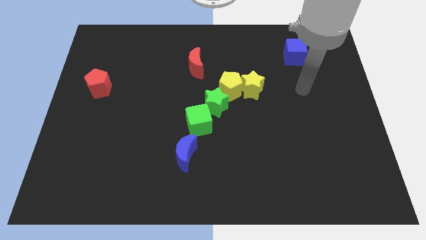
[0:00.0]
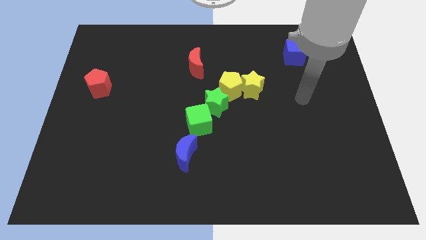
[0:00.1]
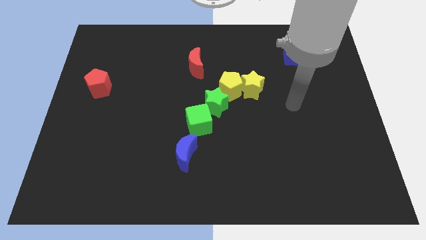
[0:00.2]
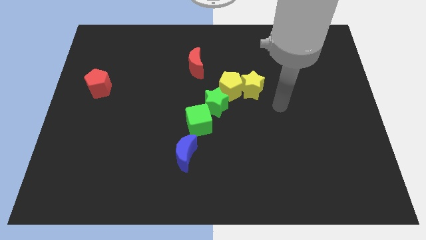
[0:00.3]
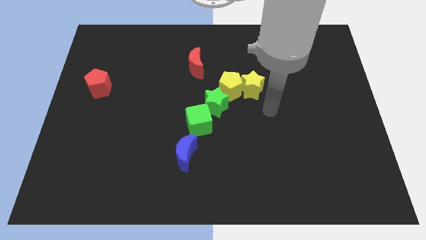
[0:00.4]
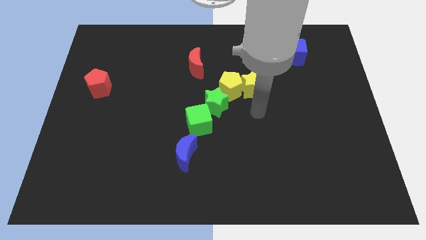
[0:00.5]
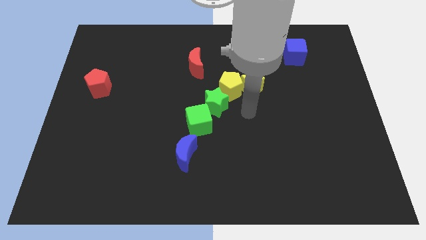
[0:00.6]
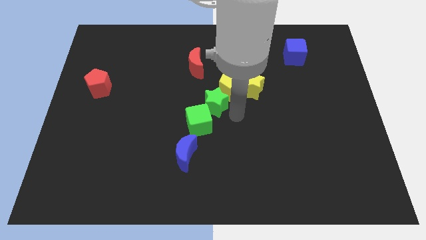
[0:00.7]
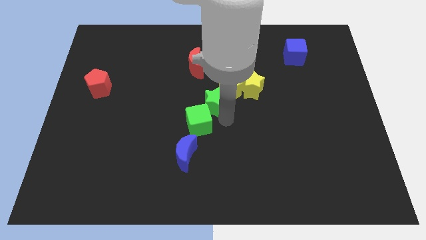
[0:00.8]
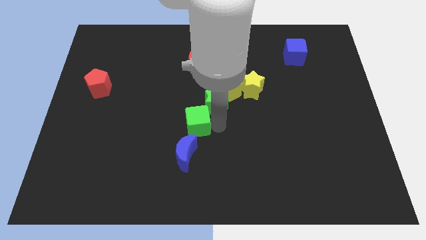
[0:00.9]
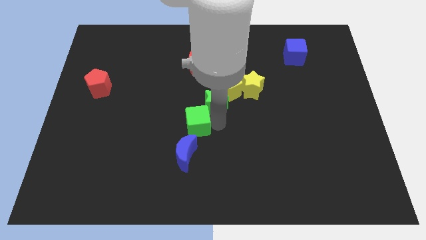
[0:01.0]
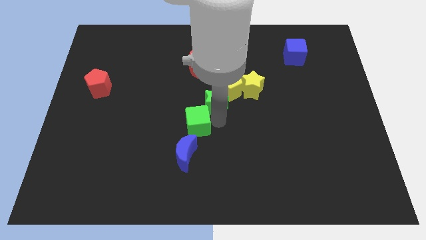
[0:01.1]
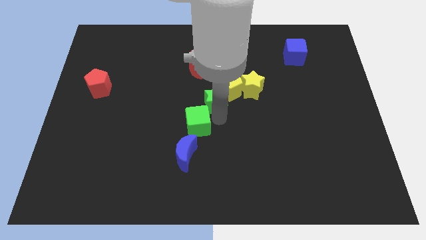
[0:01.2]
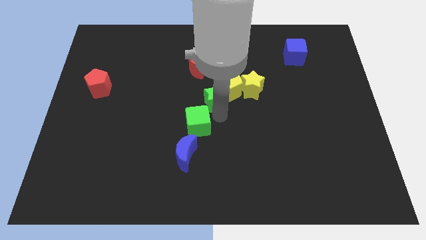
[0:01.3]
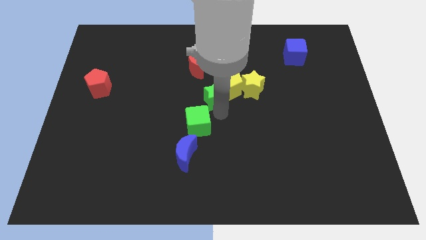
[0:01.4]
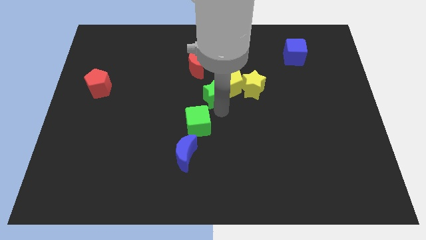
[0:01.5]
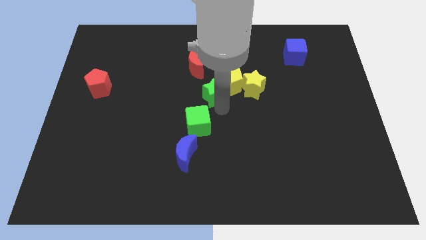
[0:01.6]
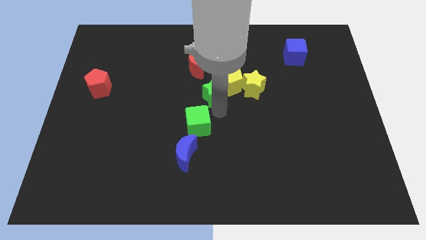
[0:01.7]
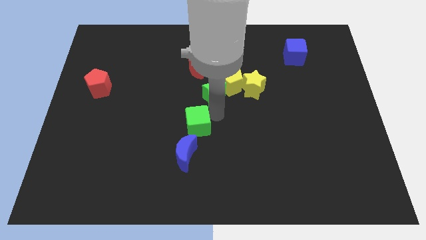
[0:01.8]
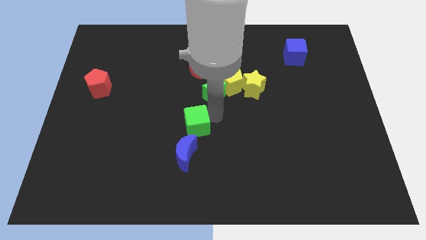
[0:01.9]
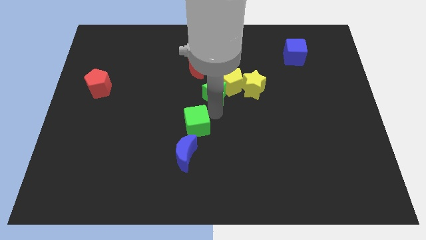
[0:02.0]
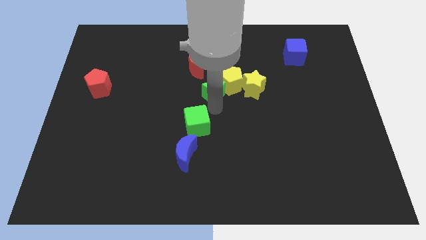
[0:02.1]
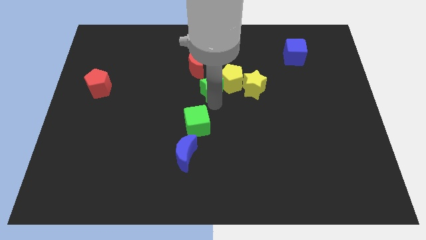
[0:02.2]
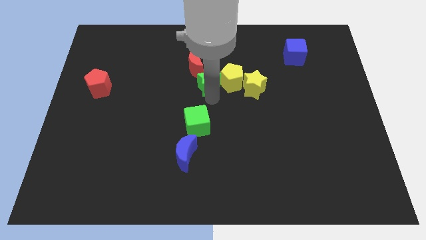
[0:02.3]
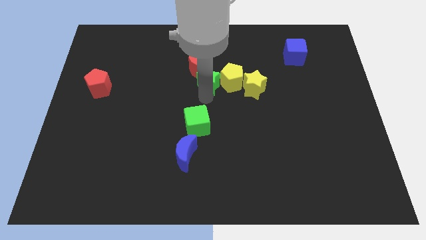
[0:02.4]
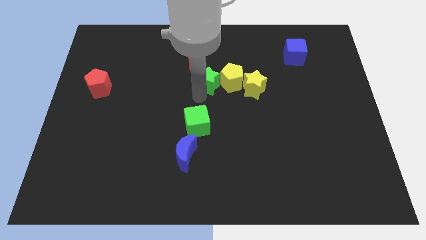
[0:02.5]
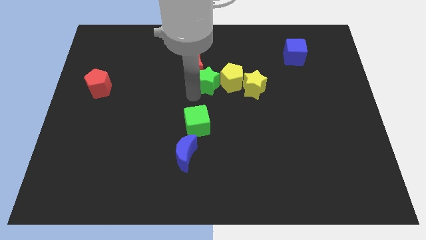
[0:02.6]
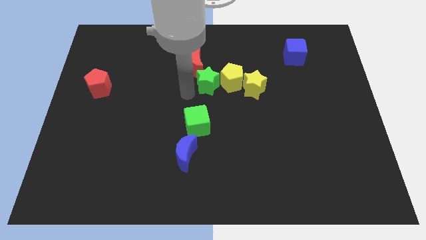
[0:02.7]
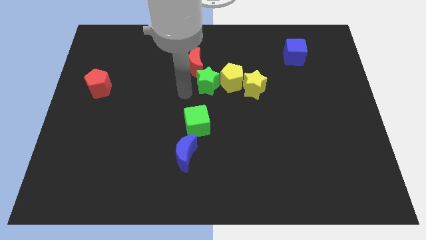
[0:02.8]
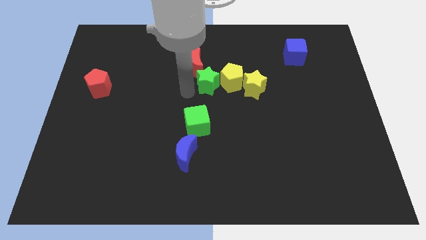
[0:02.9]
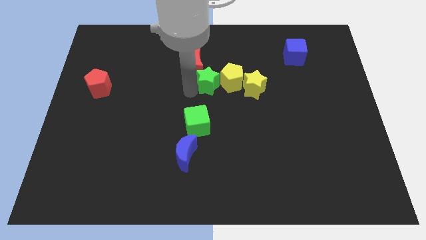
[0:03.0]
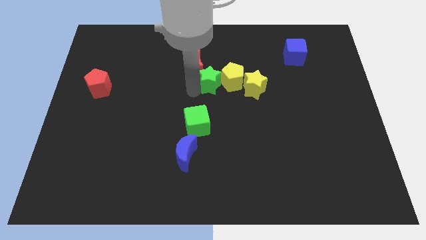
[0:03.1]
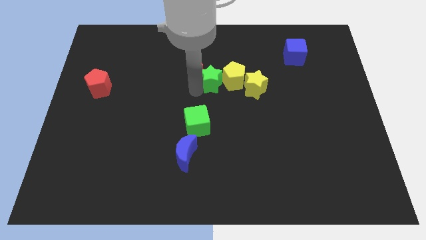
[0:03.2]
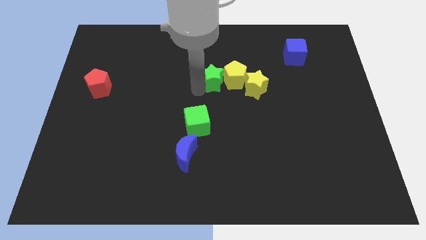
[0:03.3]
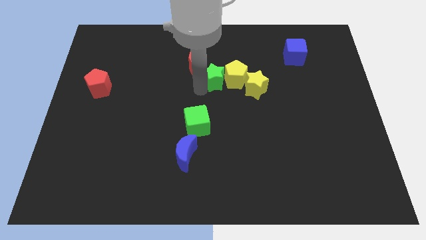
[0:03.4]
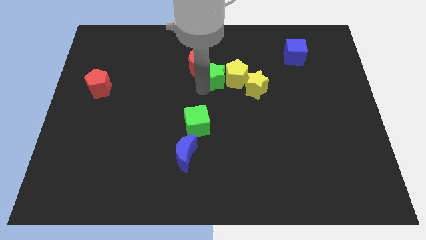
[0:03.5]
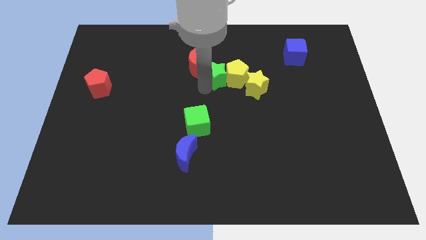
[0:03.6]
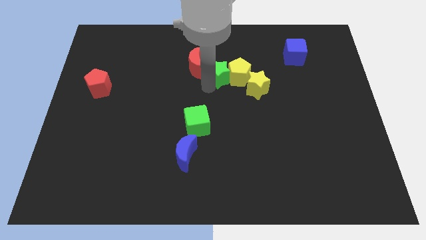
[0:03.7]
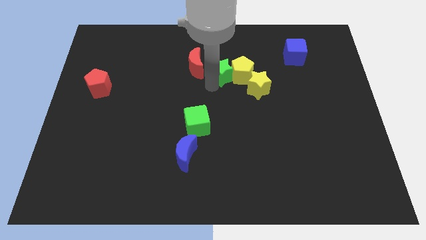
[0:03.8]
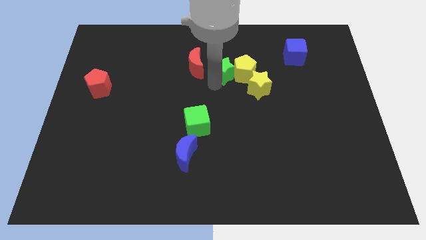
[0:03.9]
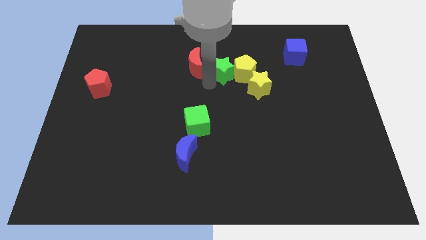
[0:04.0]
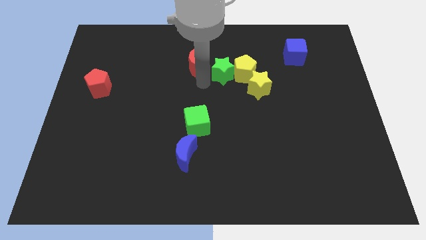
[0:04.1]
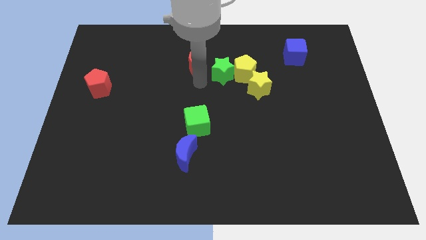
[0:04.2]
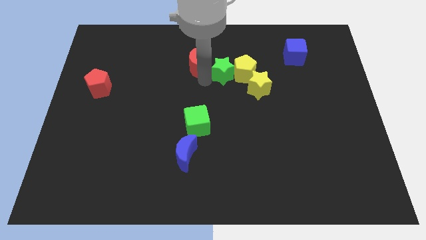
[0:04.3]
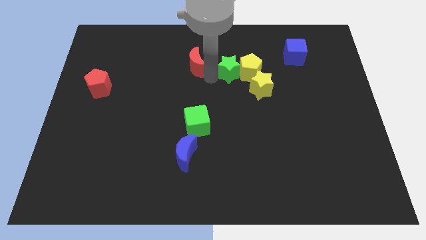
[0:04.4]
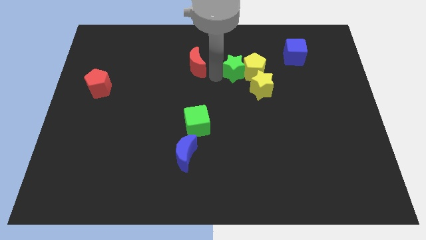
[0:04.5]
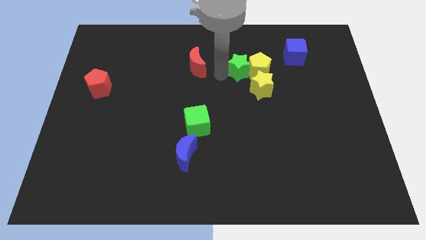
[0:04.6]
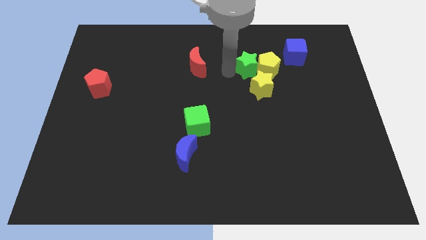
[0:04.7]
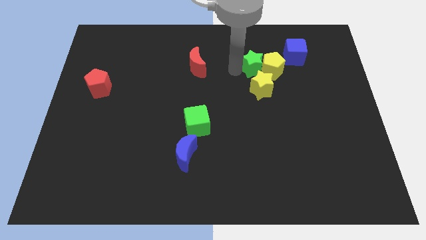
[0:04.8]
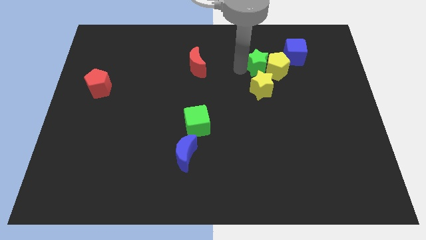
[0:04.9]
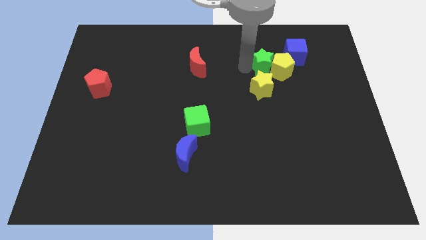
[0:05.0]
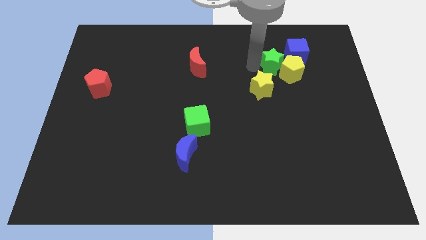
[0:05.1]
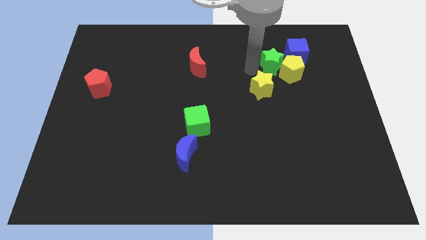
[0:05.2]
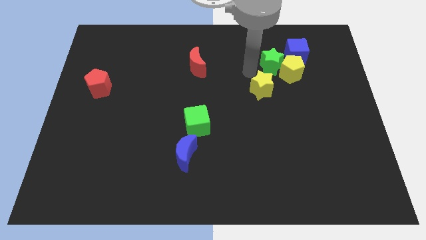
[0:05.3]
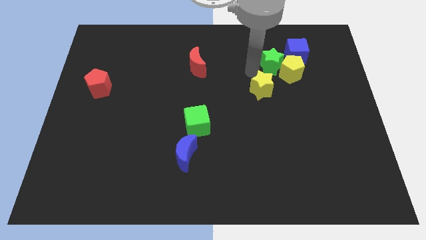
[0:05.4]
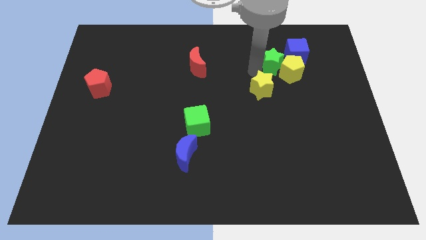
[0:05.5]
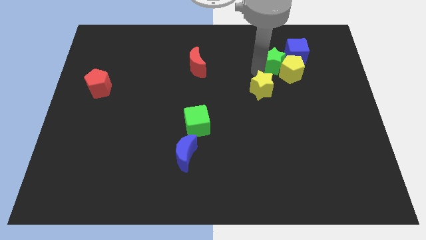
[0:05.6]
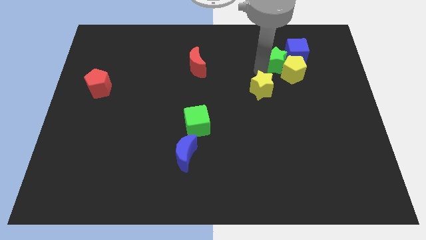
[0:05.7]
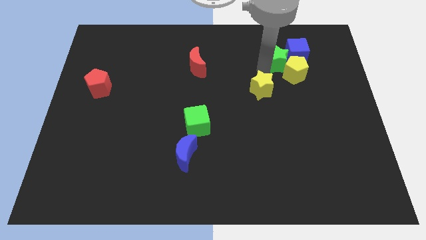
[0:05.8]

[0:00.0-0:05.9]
push the green star next to the blue cube

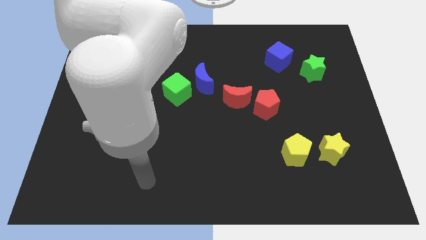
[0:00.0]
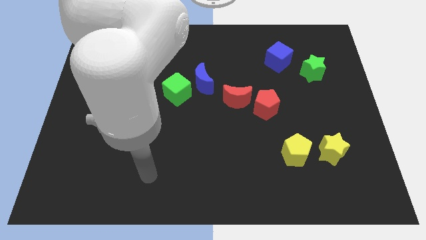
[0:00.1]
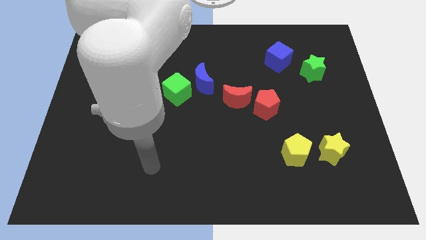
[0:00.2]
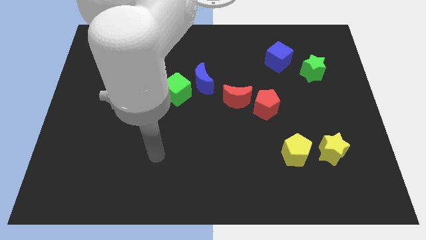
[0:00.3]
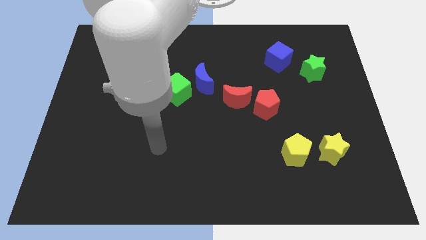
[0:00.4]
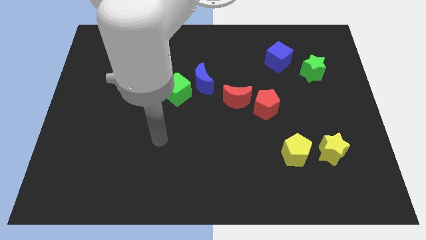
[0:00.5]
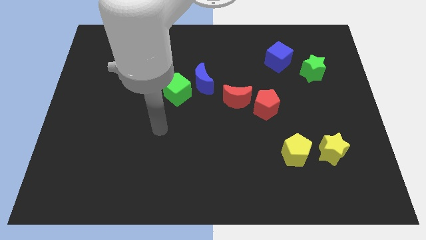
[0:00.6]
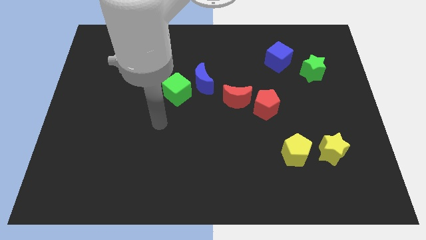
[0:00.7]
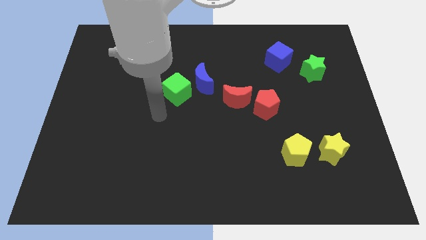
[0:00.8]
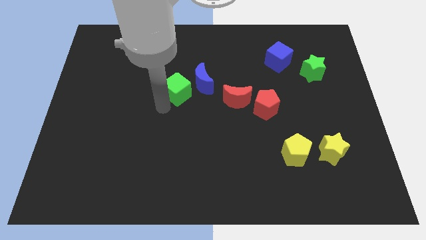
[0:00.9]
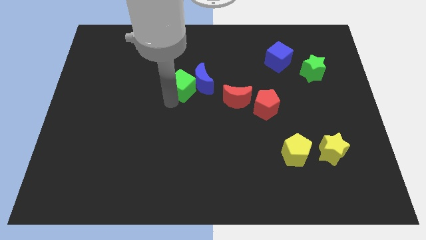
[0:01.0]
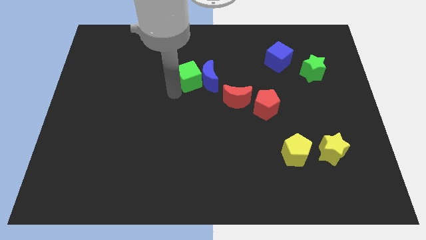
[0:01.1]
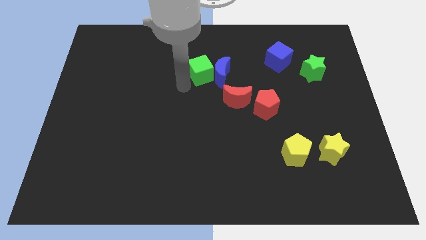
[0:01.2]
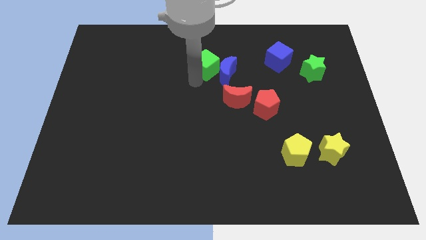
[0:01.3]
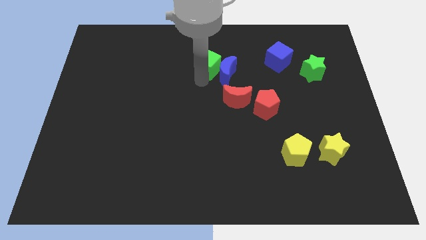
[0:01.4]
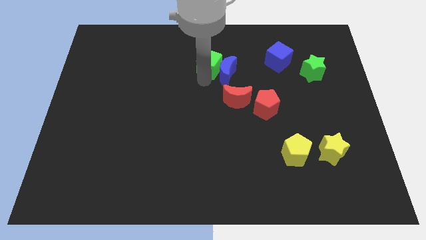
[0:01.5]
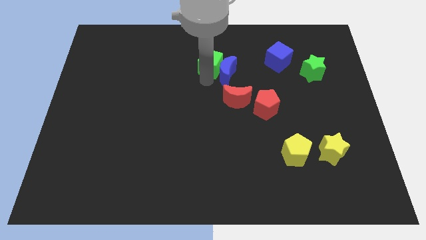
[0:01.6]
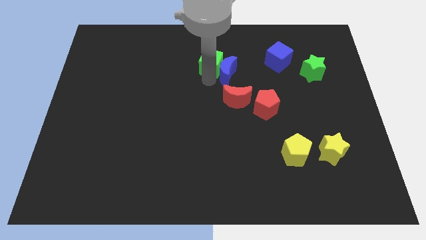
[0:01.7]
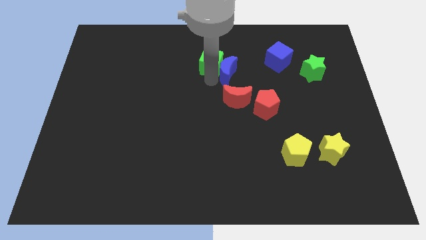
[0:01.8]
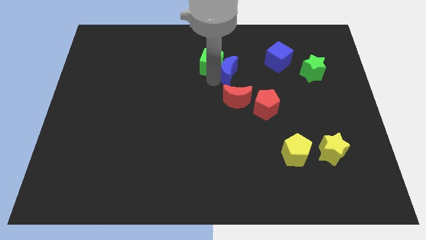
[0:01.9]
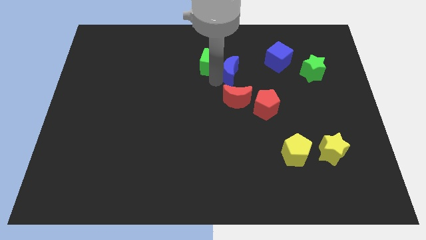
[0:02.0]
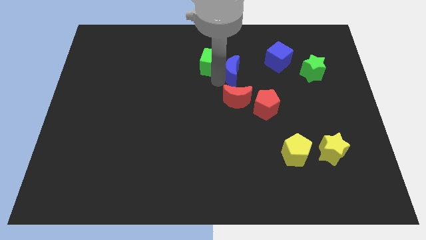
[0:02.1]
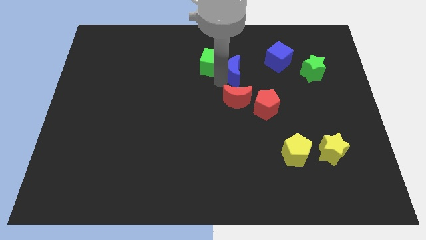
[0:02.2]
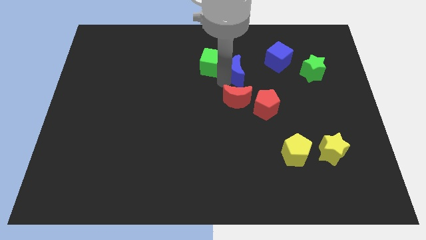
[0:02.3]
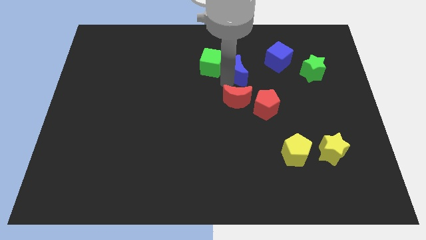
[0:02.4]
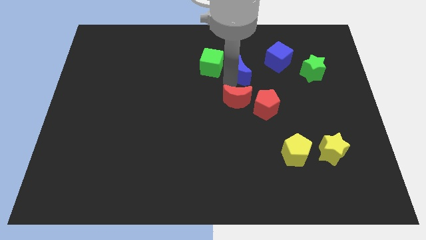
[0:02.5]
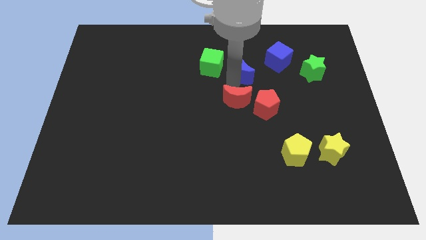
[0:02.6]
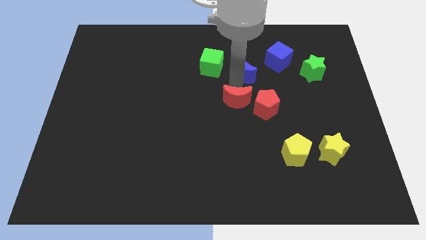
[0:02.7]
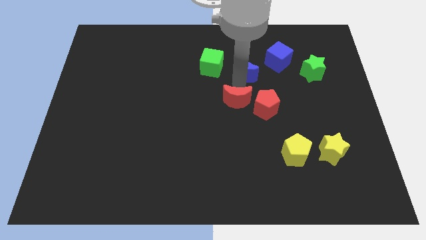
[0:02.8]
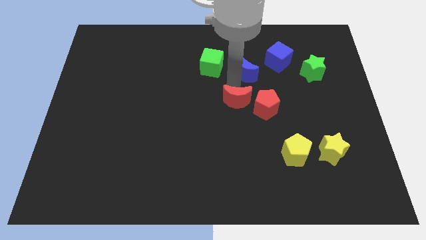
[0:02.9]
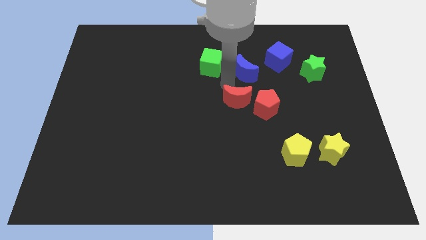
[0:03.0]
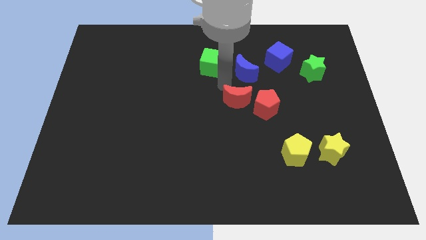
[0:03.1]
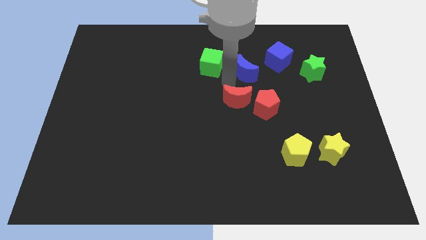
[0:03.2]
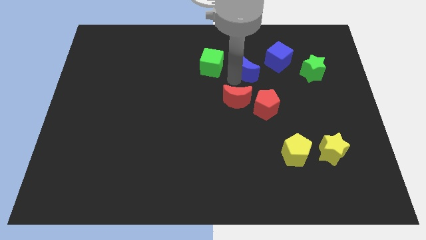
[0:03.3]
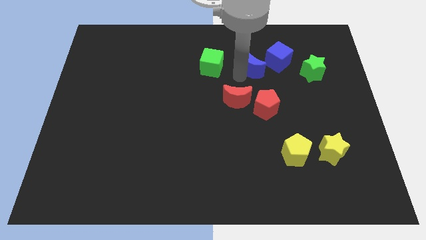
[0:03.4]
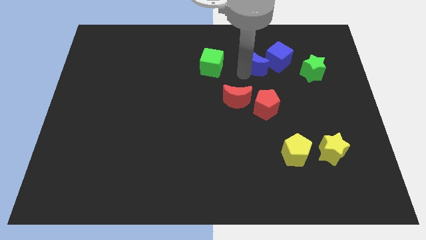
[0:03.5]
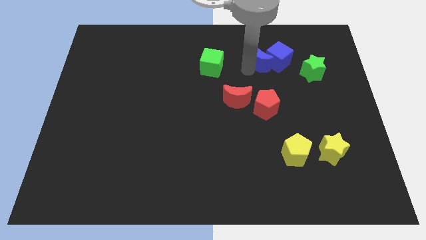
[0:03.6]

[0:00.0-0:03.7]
move the blue moon towards the blue cube
